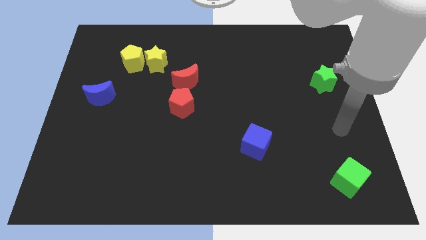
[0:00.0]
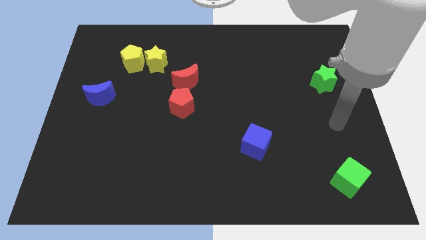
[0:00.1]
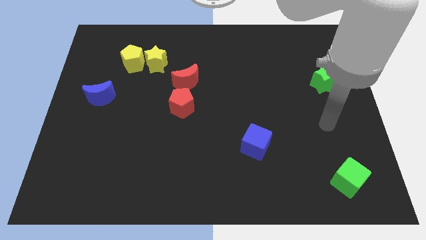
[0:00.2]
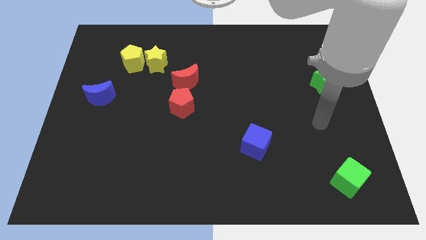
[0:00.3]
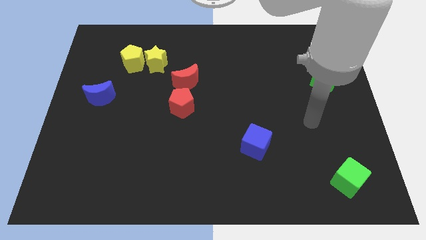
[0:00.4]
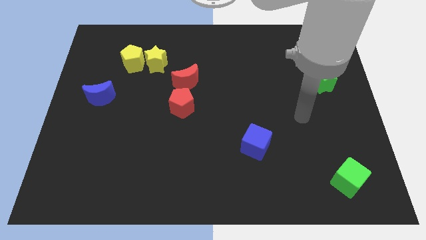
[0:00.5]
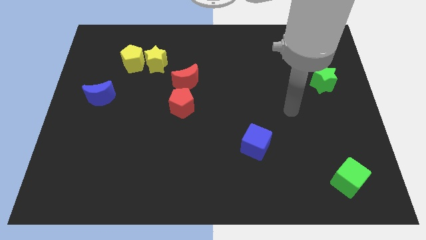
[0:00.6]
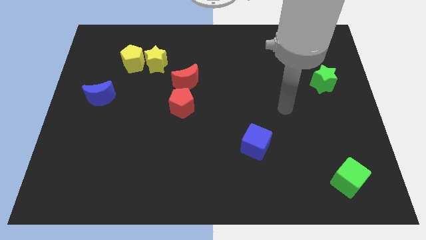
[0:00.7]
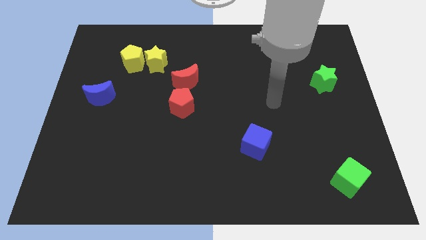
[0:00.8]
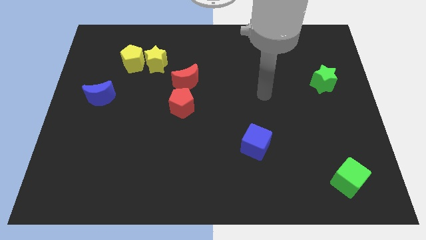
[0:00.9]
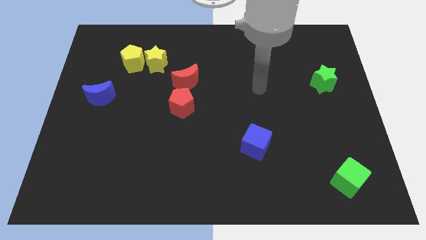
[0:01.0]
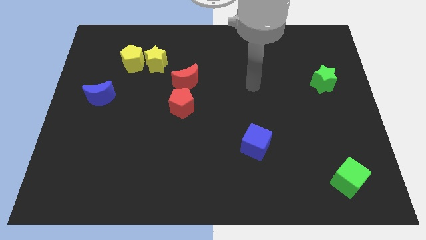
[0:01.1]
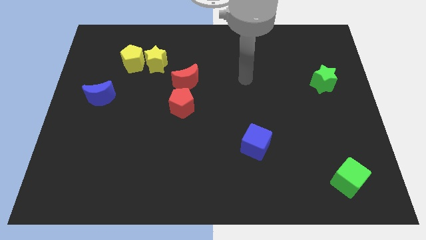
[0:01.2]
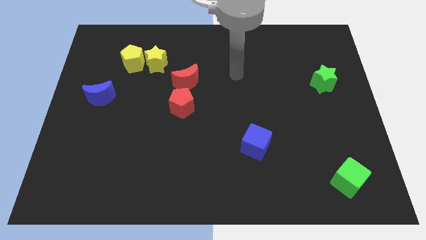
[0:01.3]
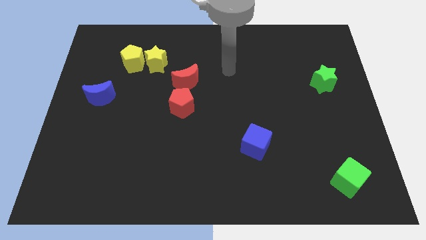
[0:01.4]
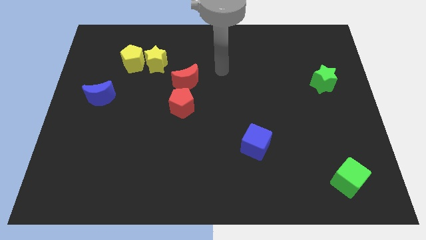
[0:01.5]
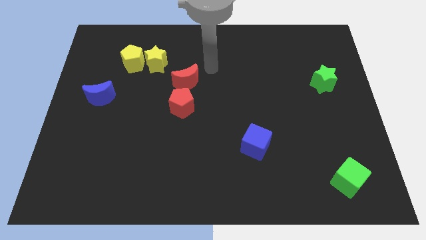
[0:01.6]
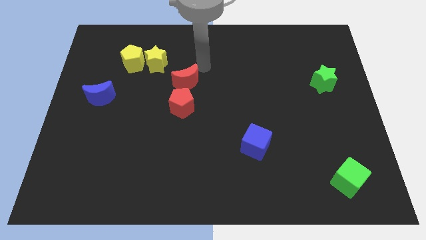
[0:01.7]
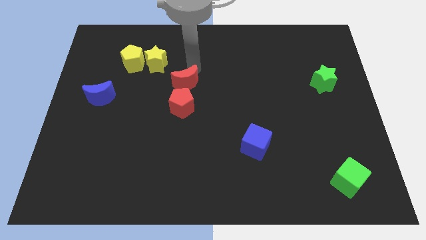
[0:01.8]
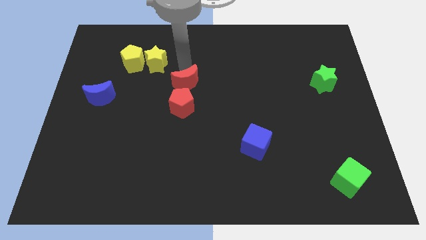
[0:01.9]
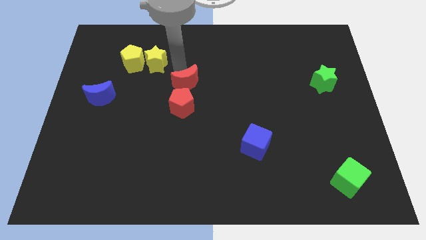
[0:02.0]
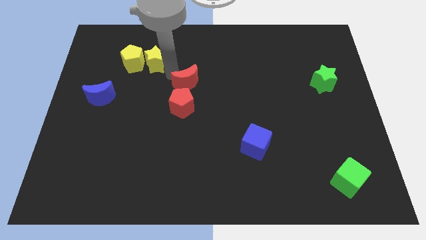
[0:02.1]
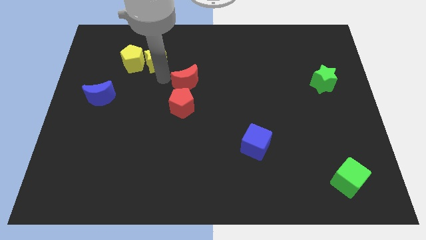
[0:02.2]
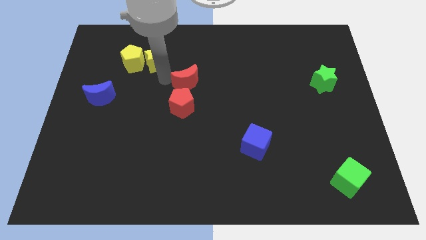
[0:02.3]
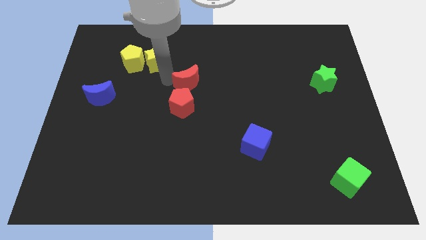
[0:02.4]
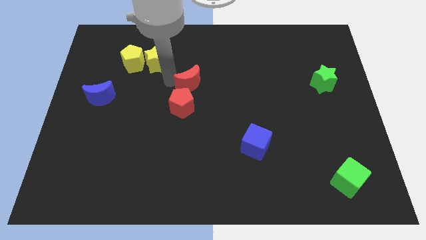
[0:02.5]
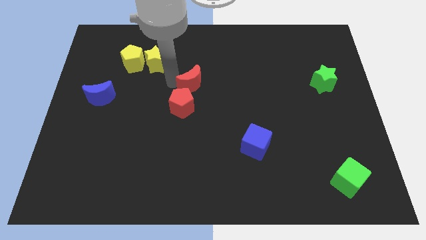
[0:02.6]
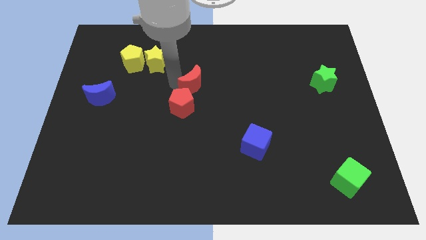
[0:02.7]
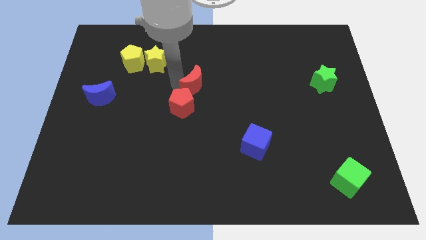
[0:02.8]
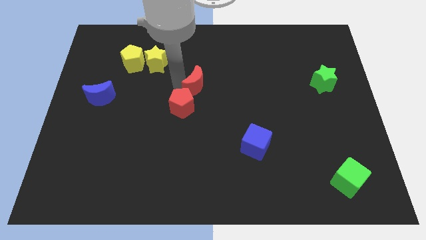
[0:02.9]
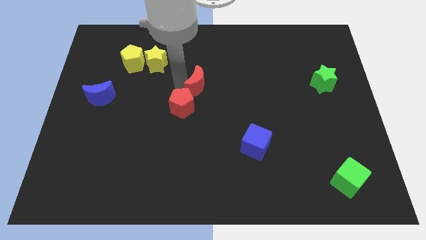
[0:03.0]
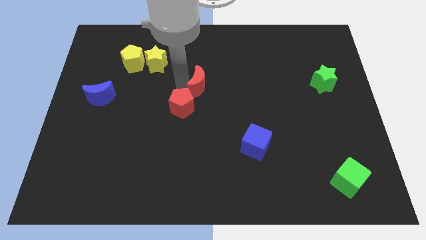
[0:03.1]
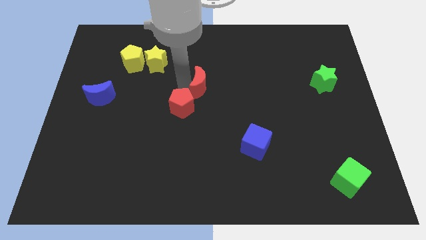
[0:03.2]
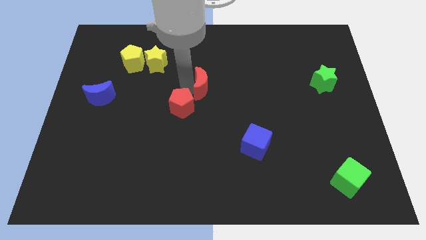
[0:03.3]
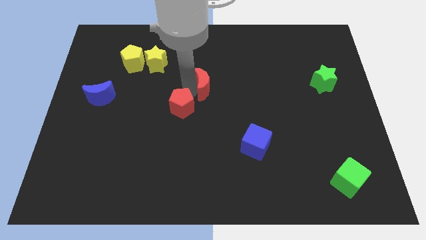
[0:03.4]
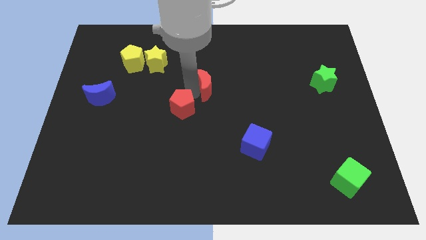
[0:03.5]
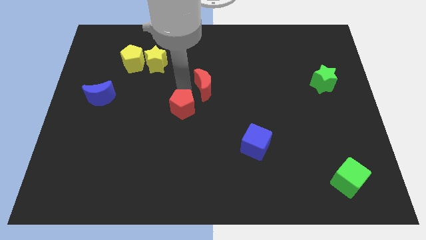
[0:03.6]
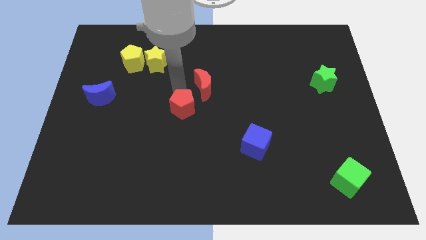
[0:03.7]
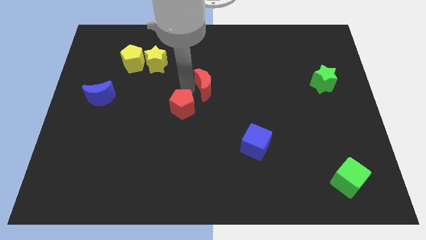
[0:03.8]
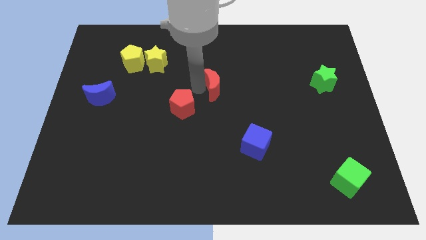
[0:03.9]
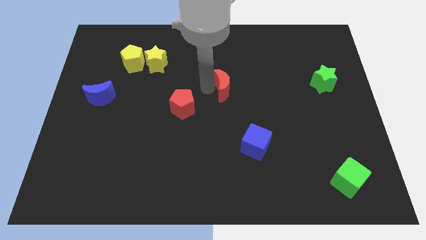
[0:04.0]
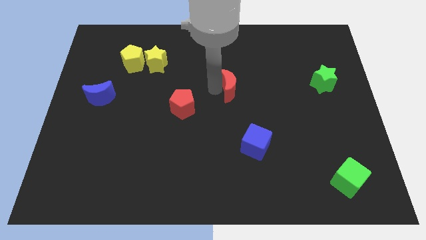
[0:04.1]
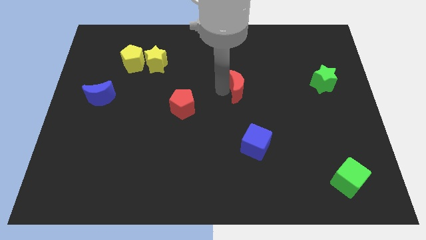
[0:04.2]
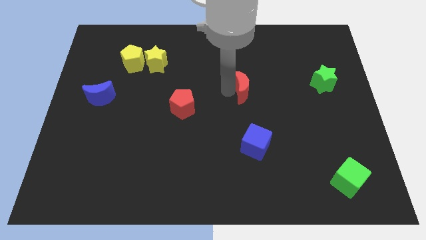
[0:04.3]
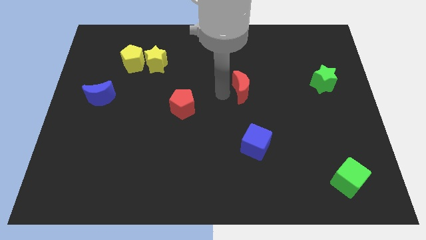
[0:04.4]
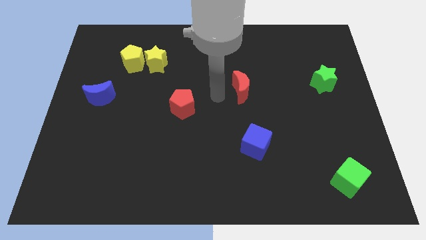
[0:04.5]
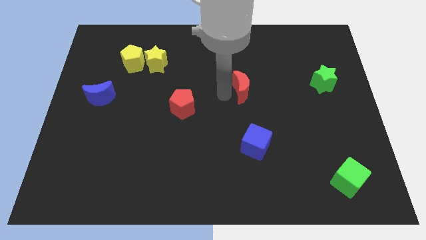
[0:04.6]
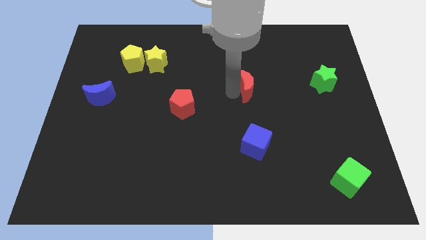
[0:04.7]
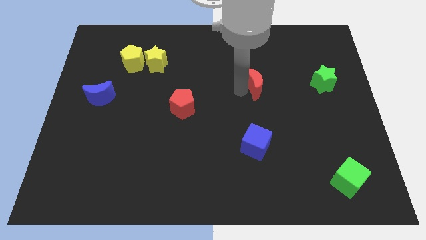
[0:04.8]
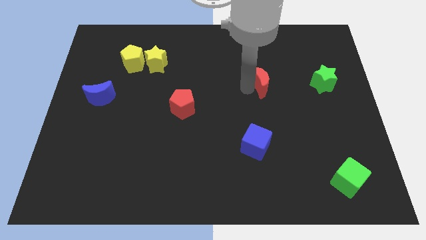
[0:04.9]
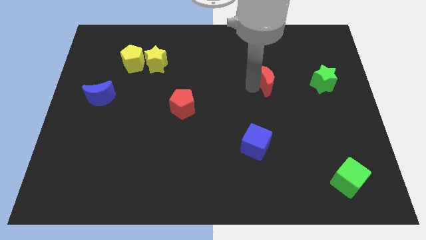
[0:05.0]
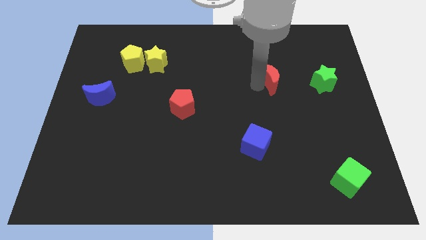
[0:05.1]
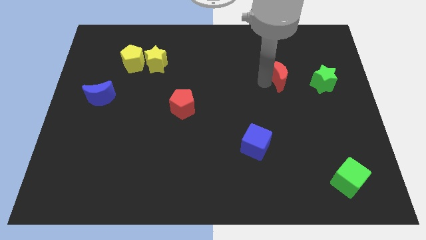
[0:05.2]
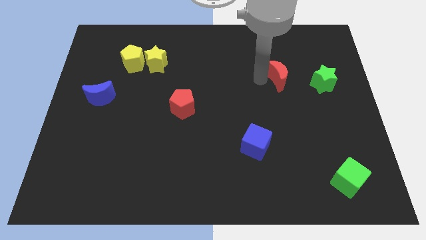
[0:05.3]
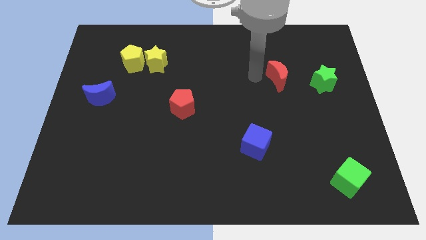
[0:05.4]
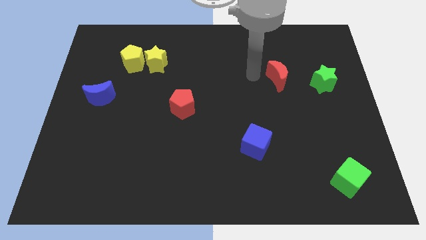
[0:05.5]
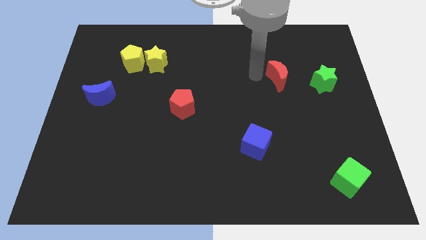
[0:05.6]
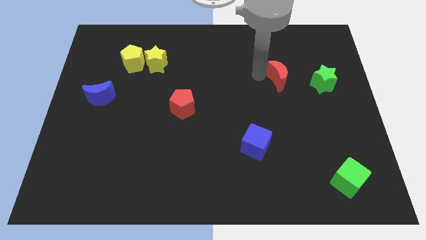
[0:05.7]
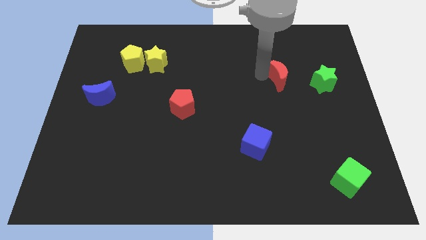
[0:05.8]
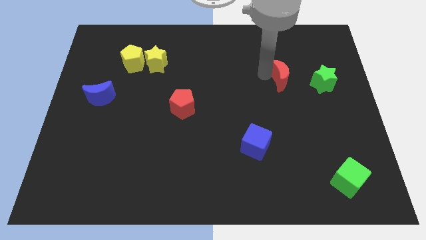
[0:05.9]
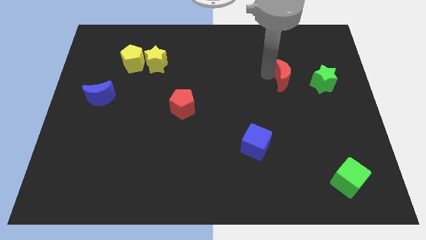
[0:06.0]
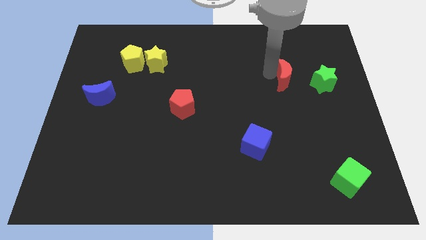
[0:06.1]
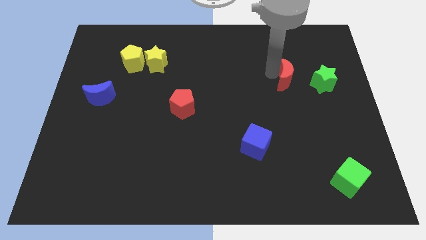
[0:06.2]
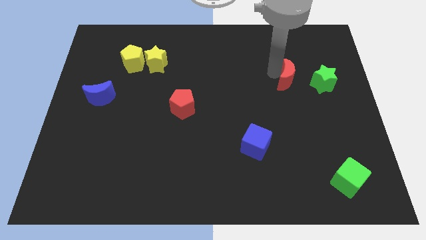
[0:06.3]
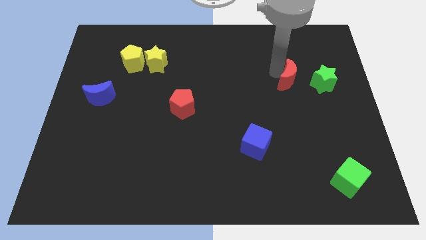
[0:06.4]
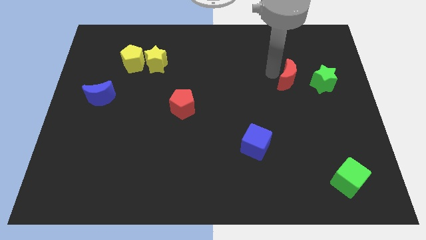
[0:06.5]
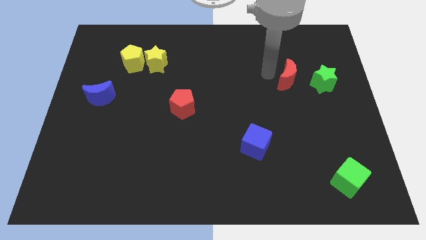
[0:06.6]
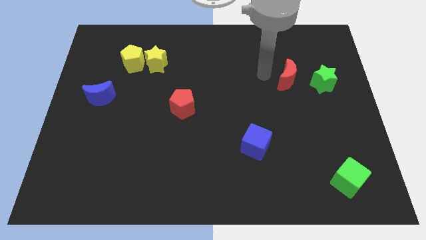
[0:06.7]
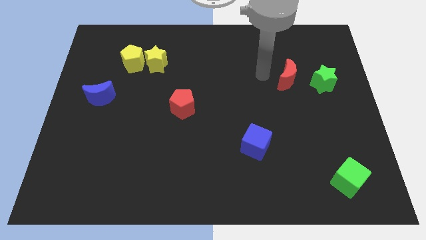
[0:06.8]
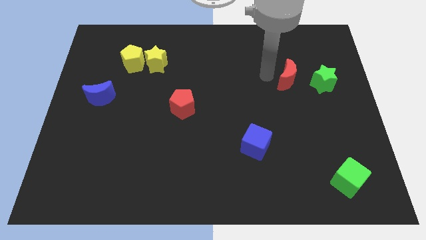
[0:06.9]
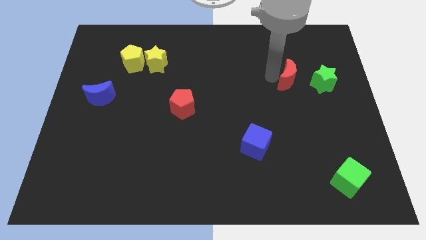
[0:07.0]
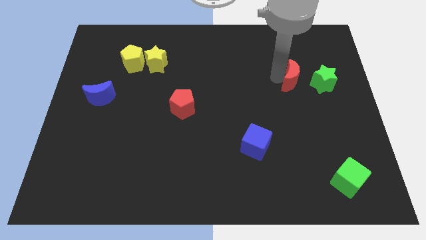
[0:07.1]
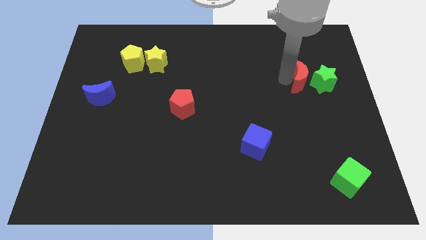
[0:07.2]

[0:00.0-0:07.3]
slide the red moon to the green star
